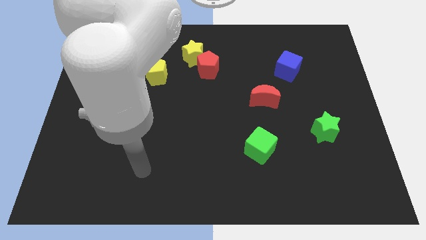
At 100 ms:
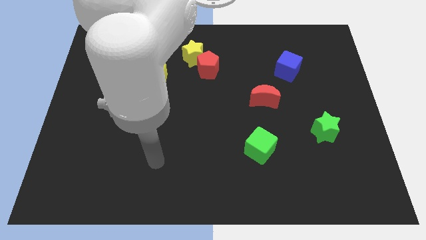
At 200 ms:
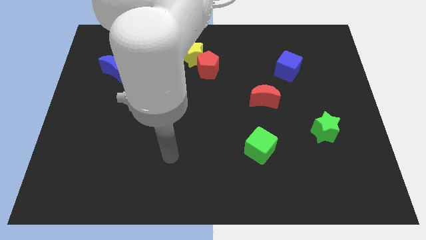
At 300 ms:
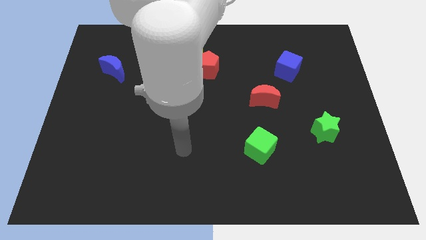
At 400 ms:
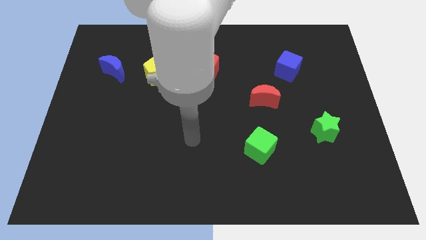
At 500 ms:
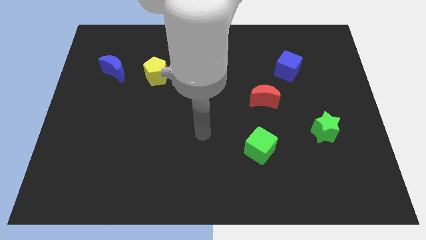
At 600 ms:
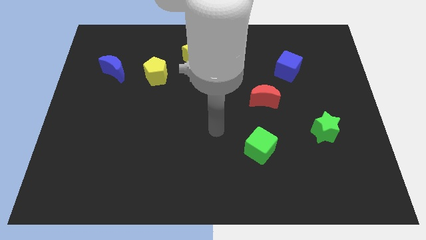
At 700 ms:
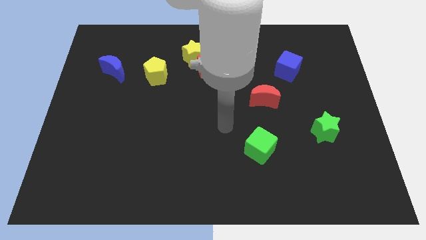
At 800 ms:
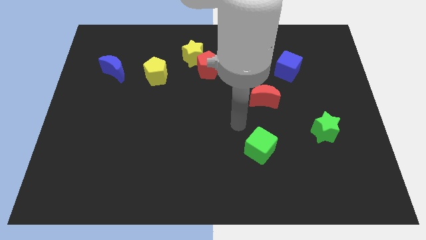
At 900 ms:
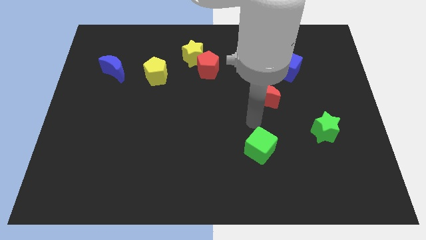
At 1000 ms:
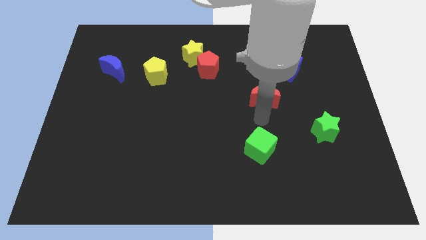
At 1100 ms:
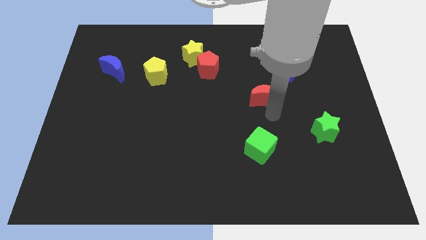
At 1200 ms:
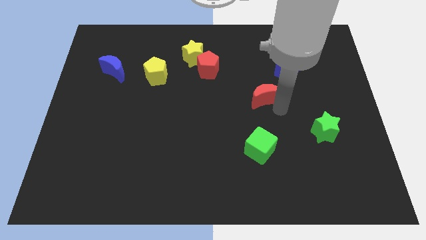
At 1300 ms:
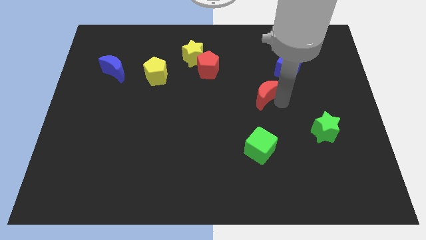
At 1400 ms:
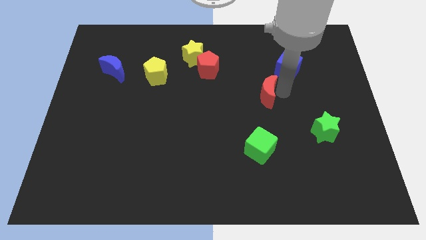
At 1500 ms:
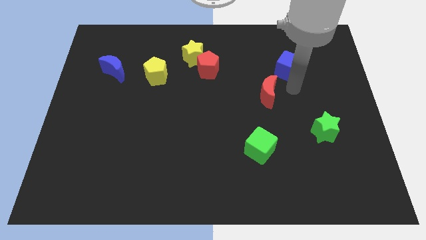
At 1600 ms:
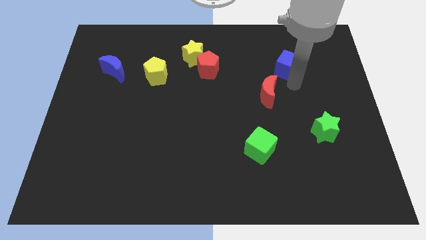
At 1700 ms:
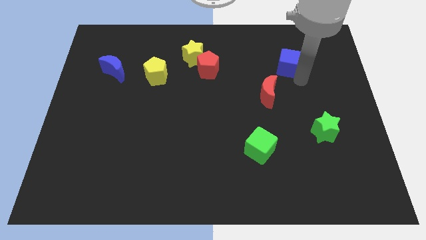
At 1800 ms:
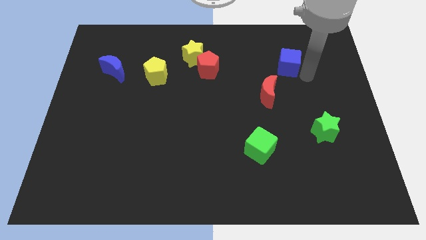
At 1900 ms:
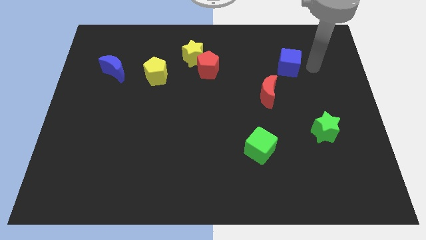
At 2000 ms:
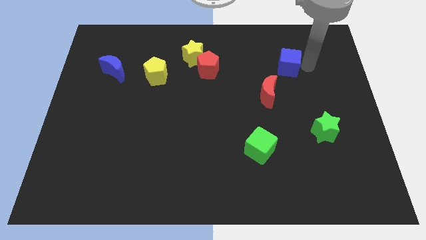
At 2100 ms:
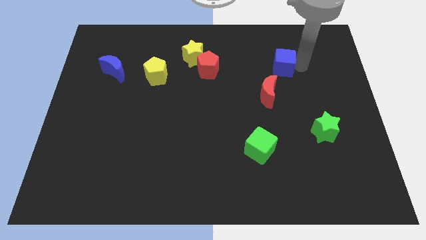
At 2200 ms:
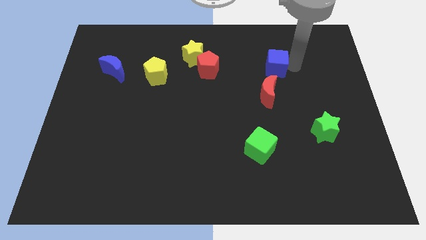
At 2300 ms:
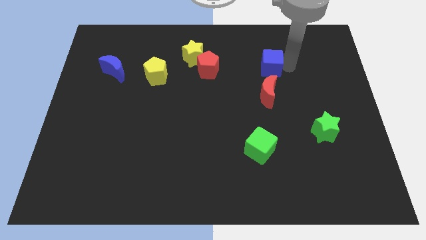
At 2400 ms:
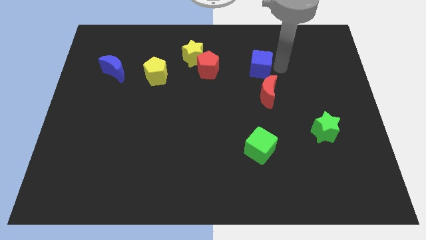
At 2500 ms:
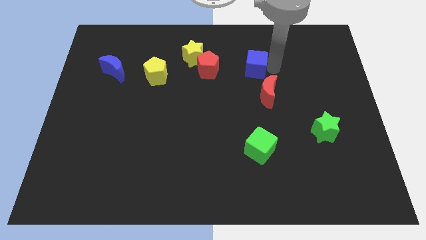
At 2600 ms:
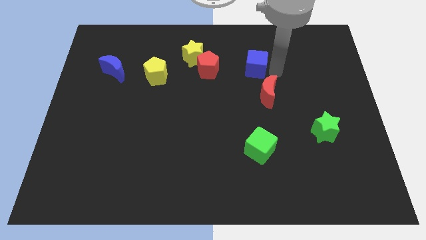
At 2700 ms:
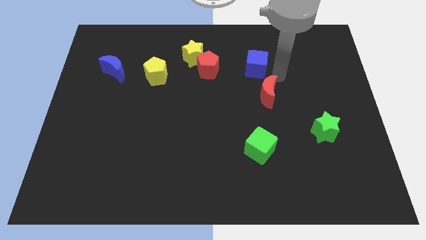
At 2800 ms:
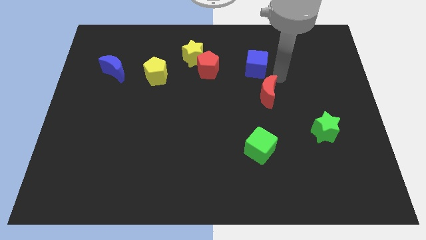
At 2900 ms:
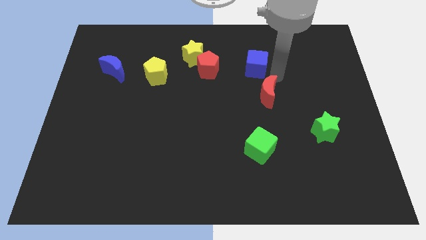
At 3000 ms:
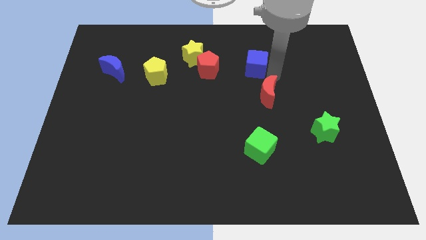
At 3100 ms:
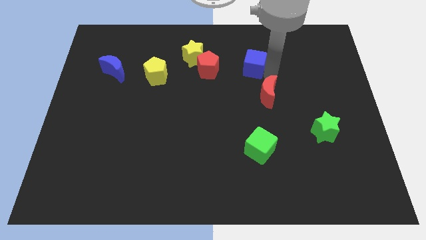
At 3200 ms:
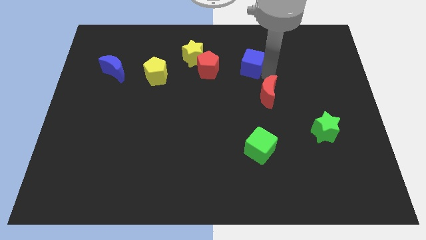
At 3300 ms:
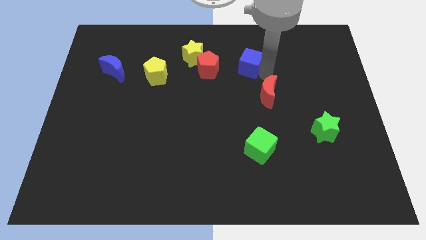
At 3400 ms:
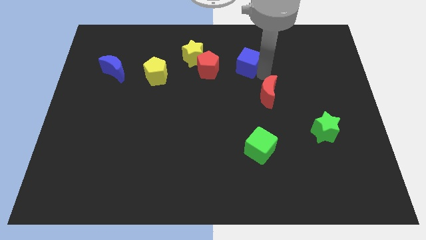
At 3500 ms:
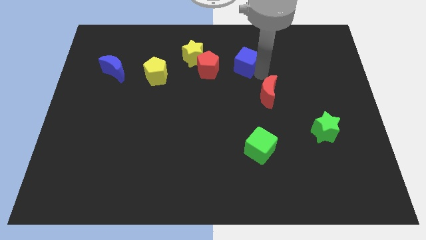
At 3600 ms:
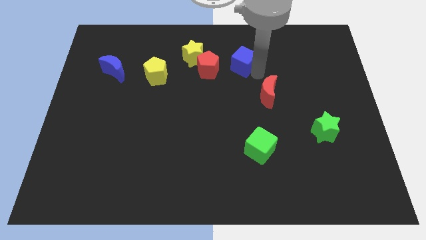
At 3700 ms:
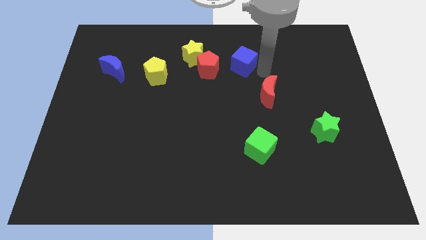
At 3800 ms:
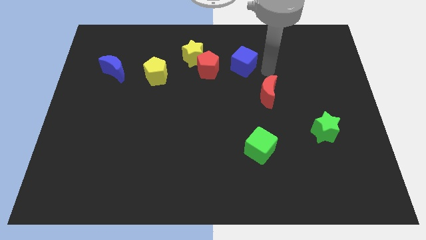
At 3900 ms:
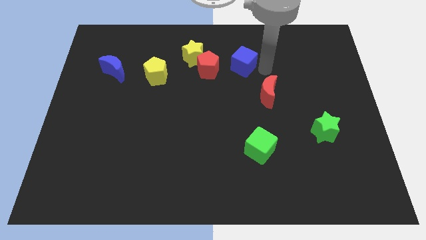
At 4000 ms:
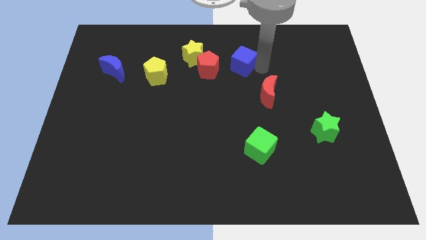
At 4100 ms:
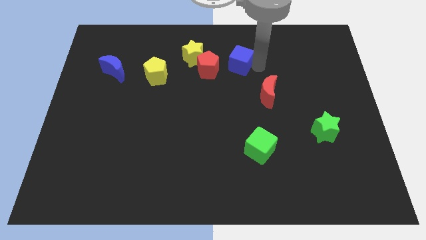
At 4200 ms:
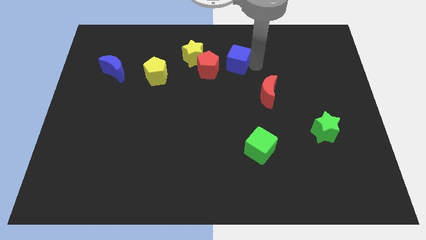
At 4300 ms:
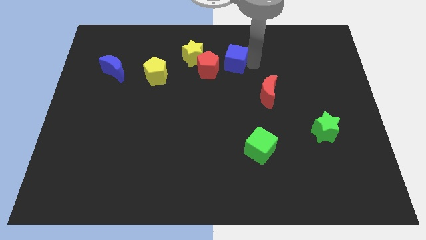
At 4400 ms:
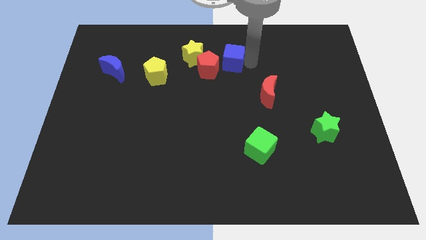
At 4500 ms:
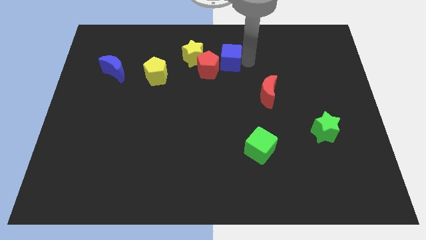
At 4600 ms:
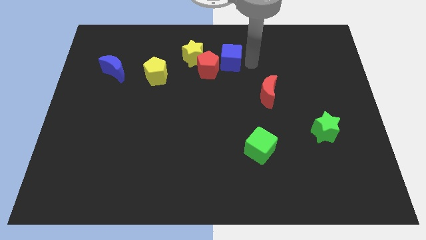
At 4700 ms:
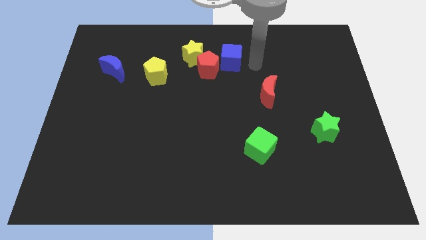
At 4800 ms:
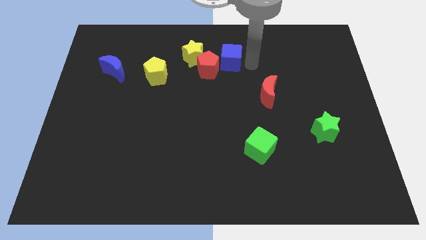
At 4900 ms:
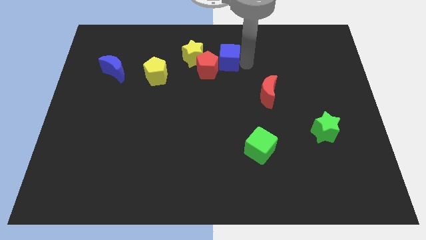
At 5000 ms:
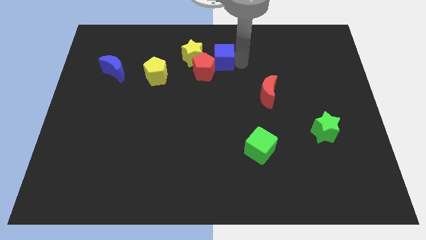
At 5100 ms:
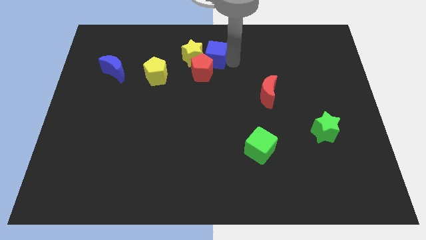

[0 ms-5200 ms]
move the blue cube towards the yellow star

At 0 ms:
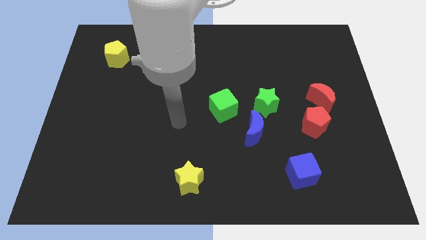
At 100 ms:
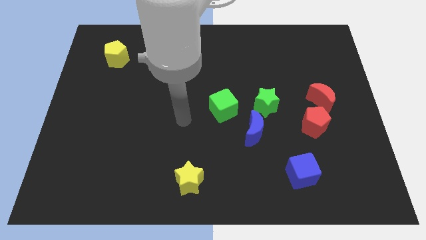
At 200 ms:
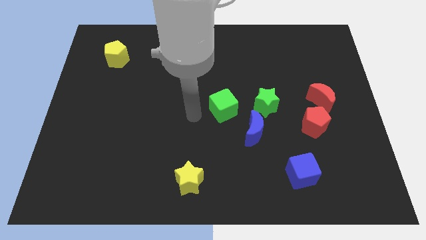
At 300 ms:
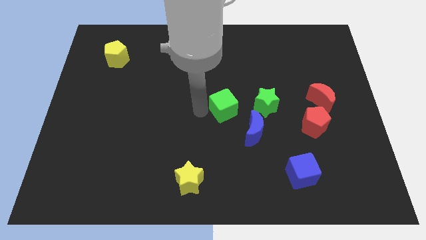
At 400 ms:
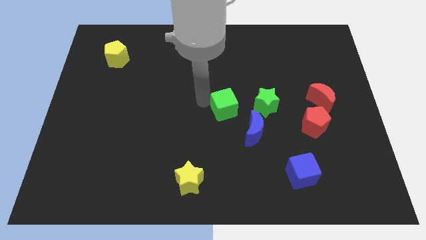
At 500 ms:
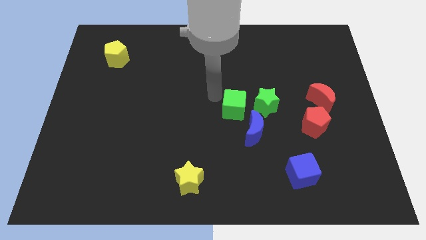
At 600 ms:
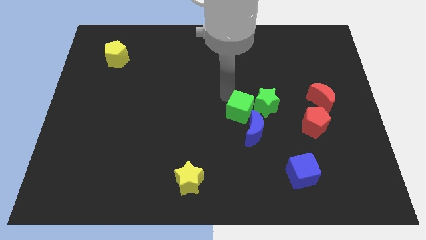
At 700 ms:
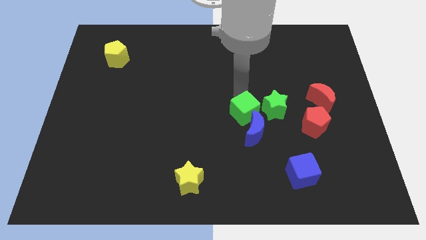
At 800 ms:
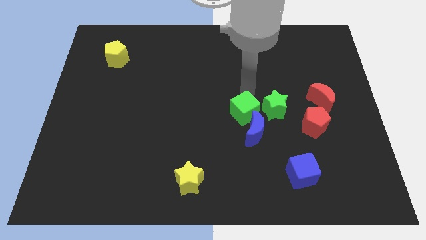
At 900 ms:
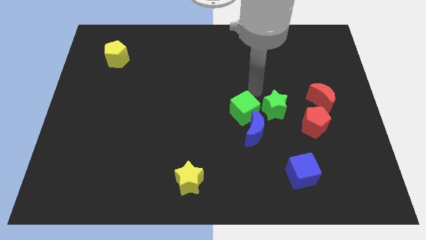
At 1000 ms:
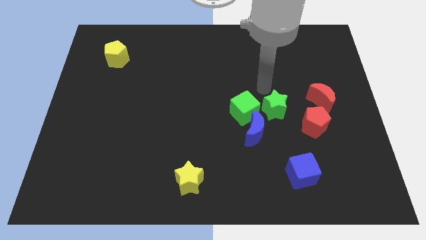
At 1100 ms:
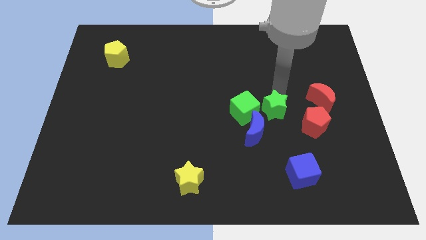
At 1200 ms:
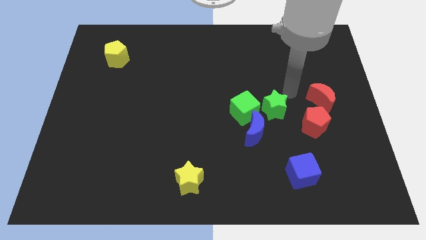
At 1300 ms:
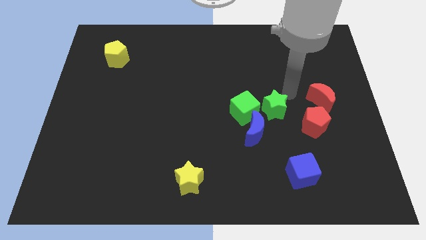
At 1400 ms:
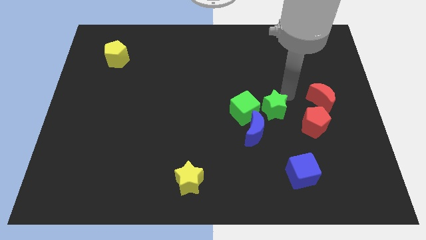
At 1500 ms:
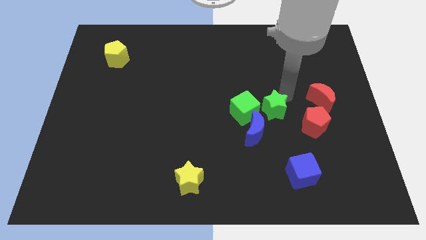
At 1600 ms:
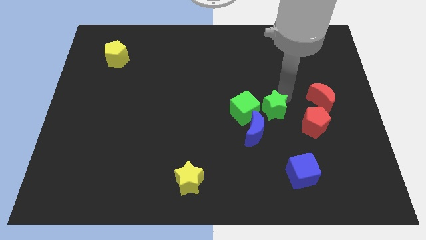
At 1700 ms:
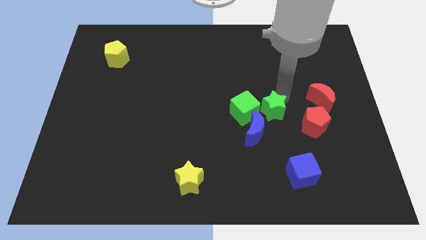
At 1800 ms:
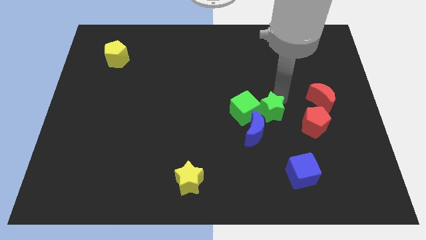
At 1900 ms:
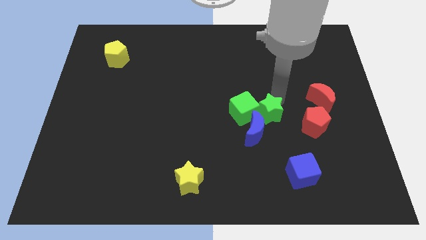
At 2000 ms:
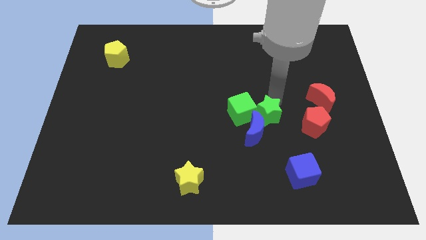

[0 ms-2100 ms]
slide the green star next to the blue moon

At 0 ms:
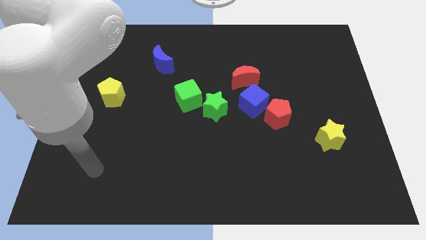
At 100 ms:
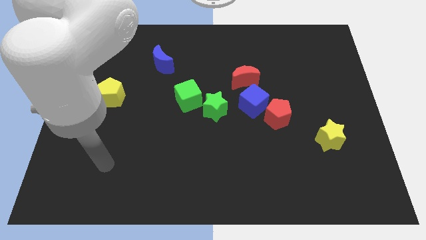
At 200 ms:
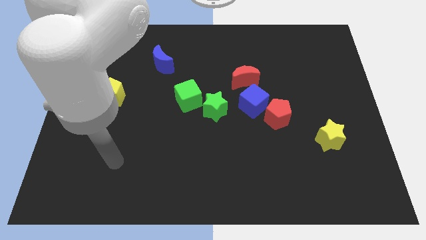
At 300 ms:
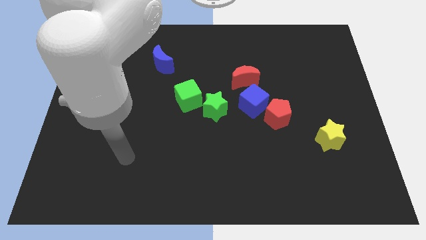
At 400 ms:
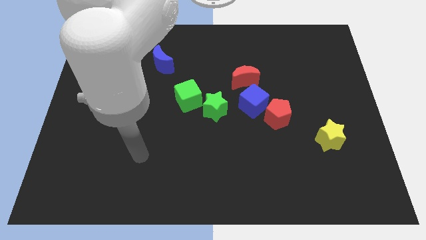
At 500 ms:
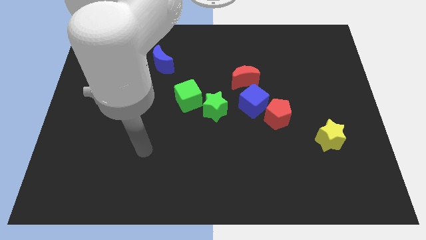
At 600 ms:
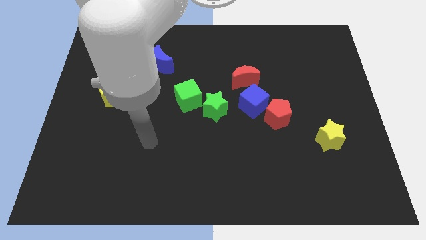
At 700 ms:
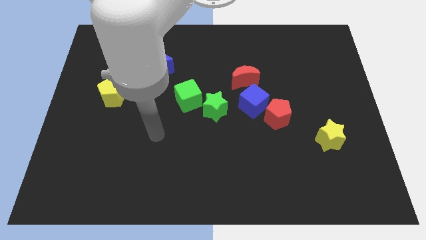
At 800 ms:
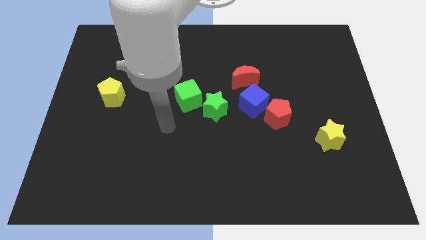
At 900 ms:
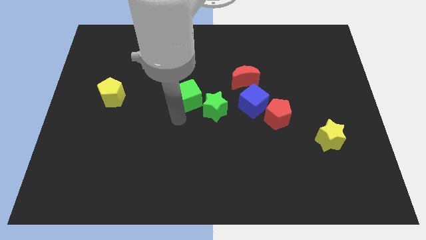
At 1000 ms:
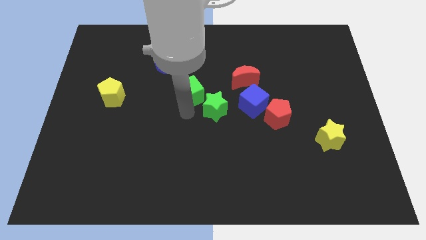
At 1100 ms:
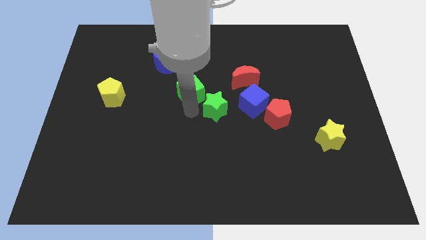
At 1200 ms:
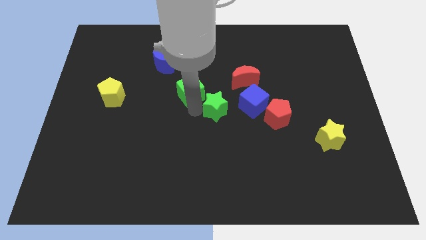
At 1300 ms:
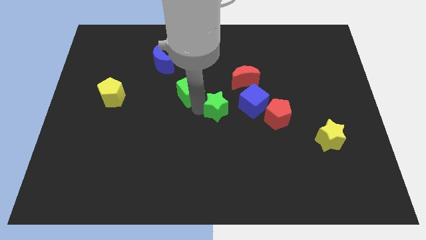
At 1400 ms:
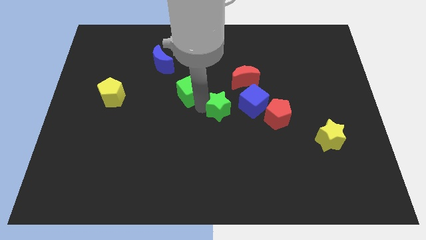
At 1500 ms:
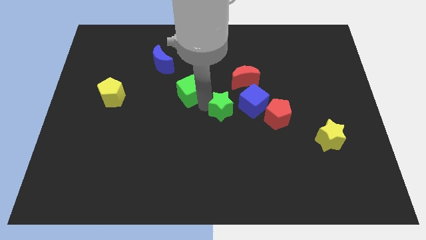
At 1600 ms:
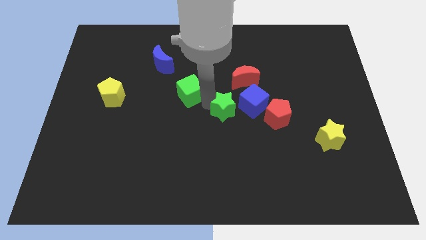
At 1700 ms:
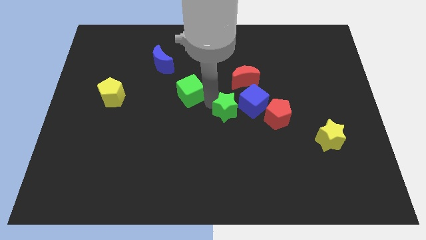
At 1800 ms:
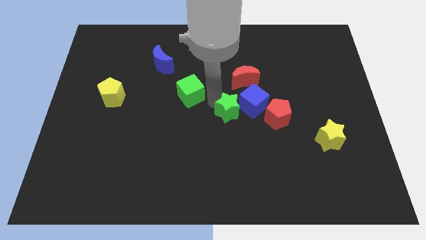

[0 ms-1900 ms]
move the green star next to the blue cube
